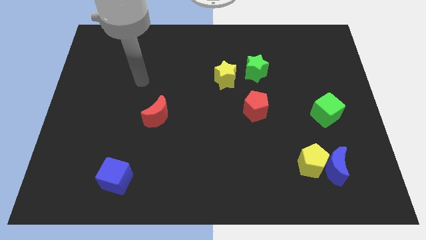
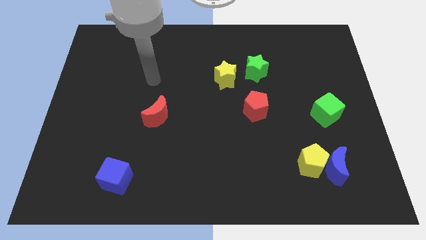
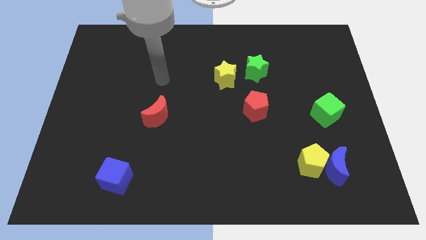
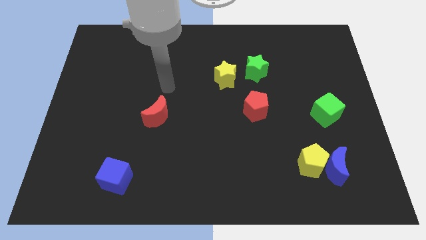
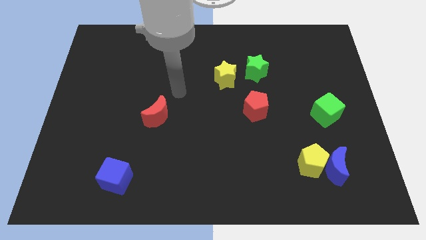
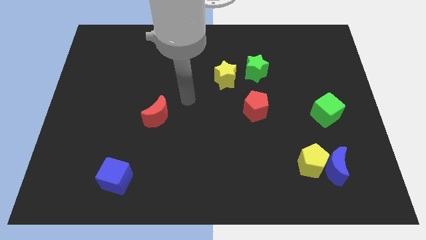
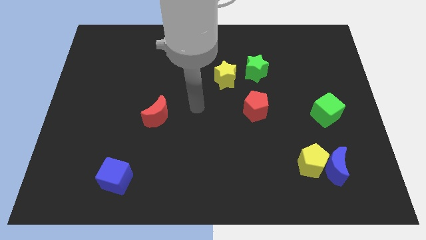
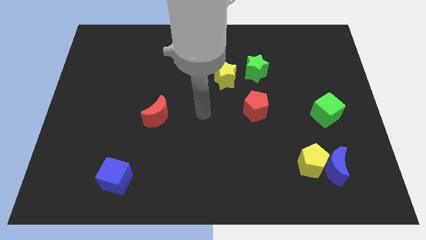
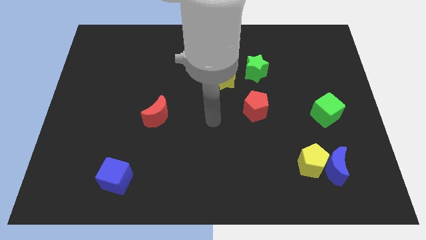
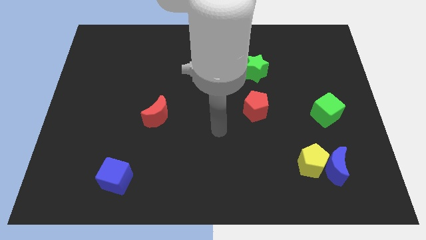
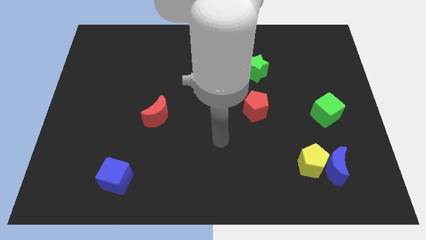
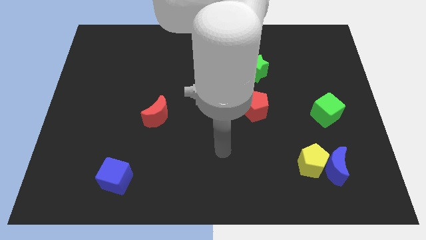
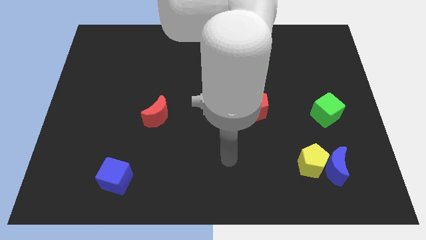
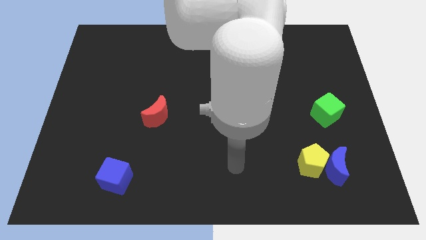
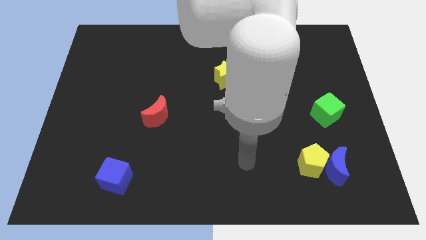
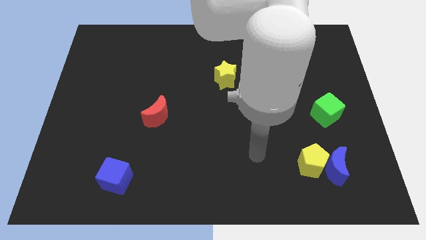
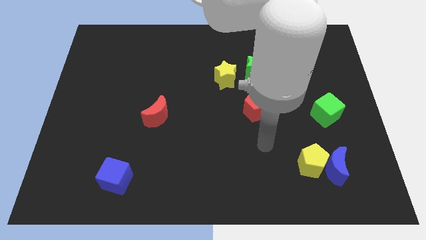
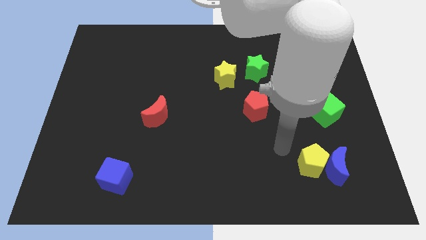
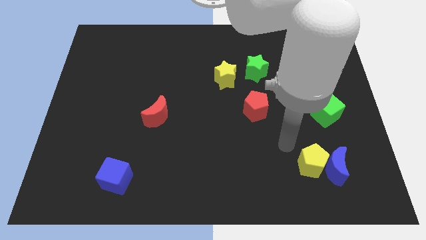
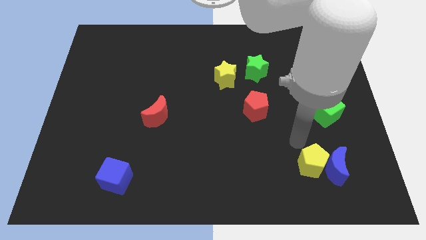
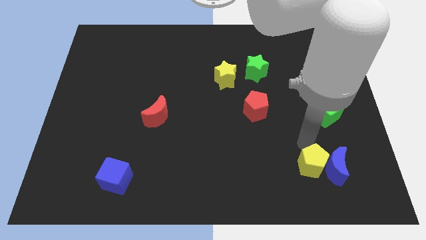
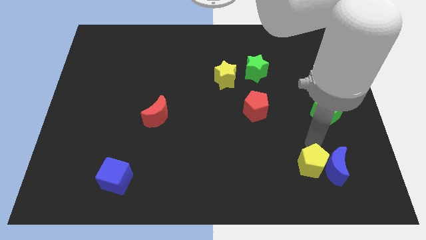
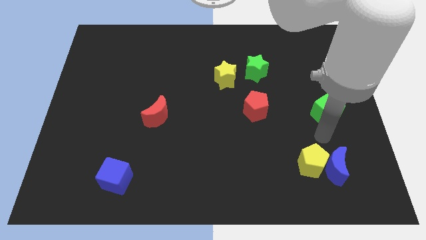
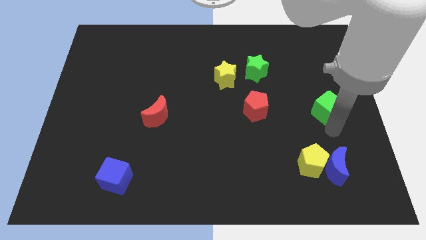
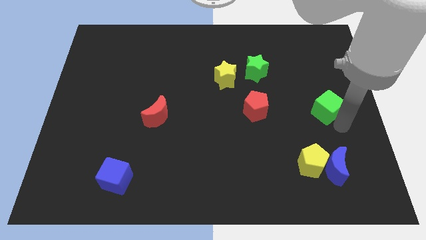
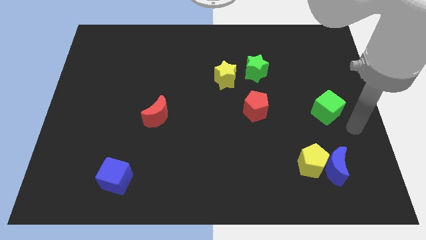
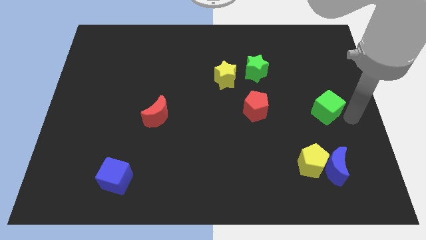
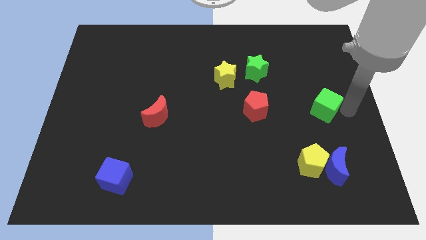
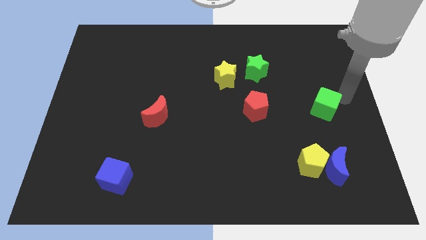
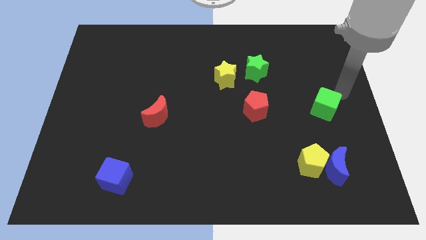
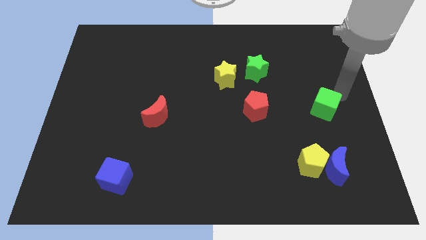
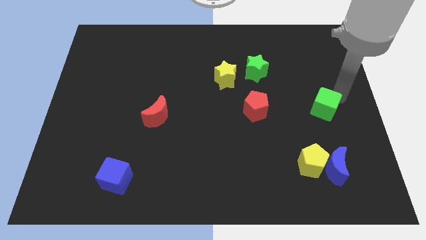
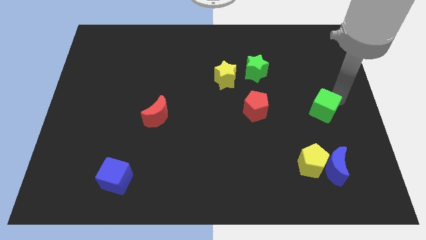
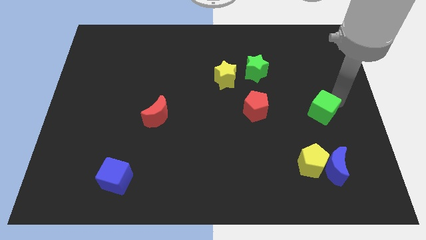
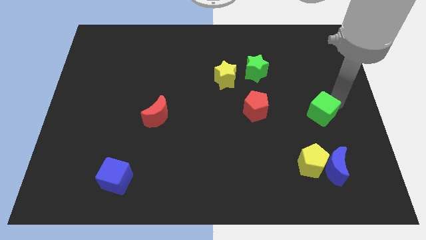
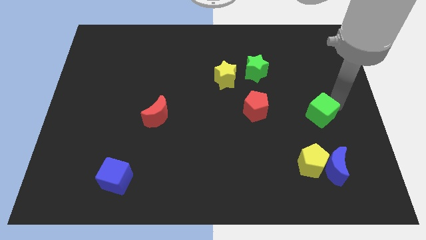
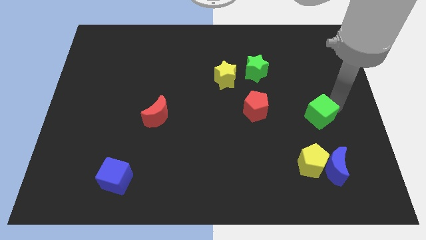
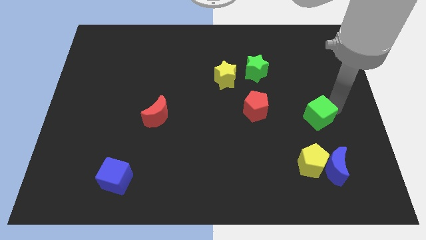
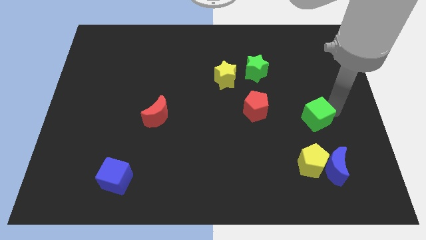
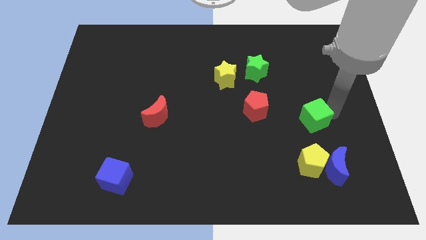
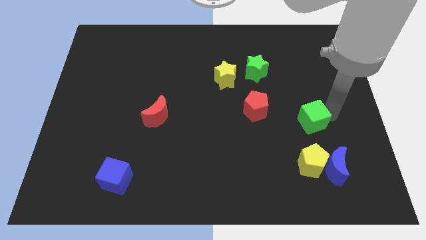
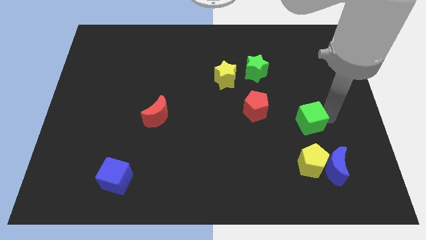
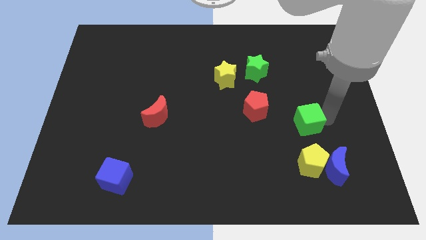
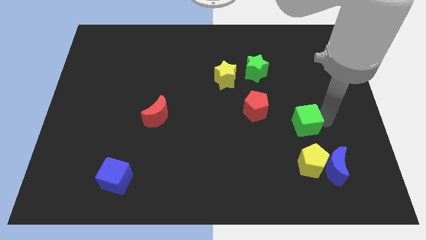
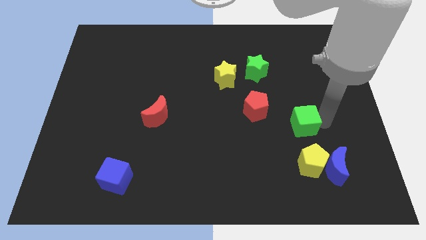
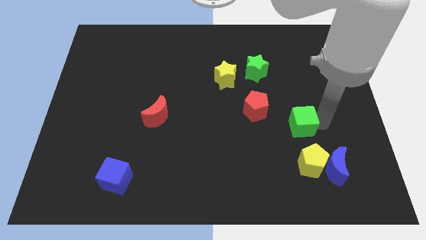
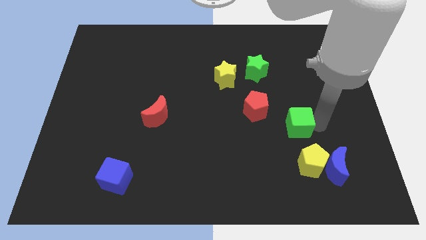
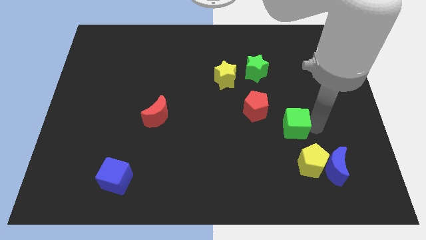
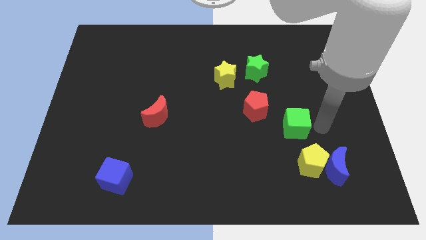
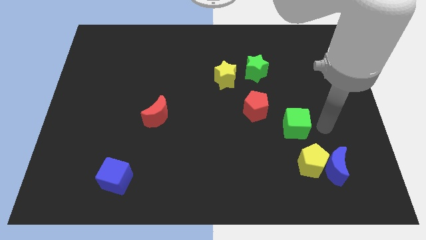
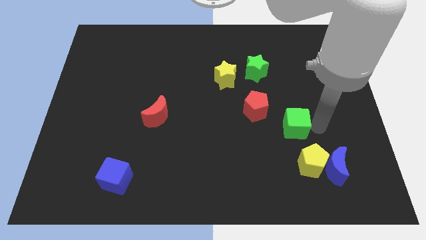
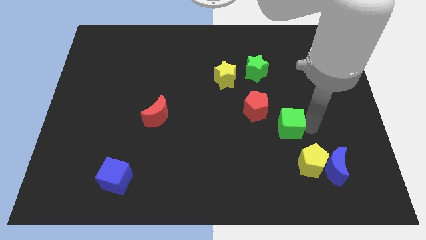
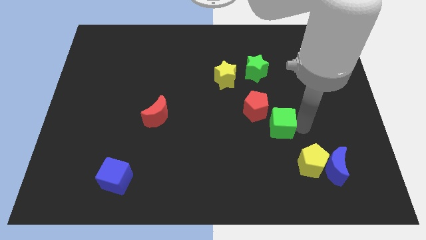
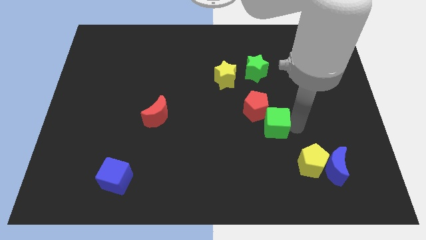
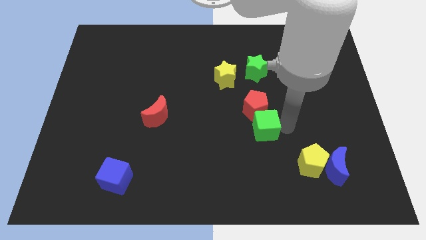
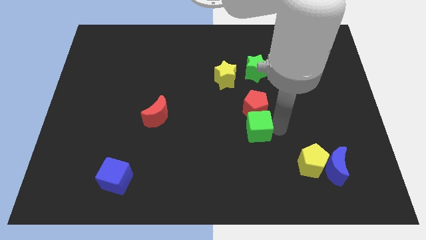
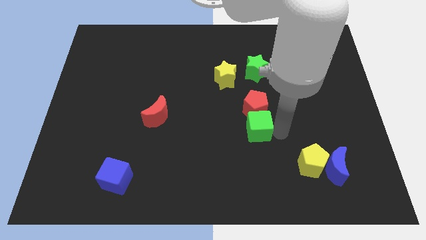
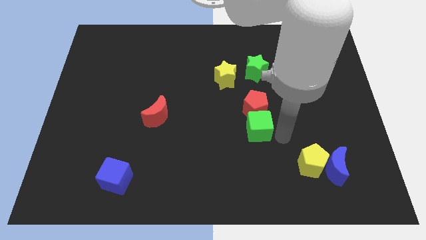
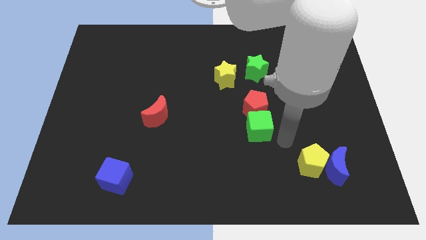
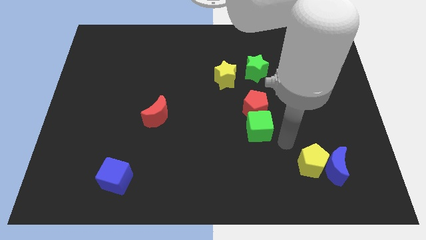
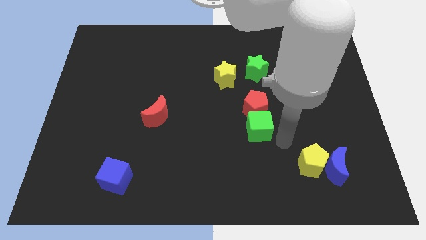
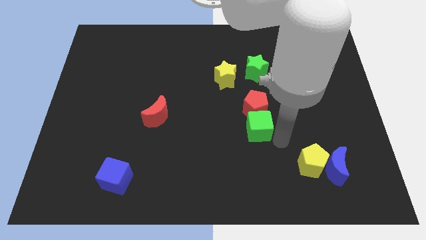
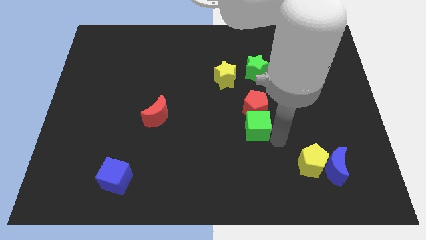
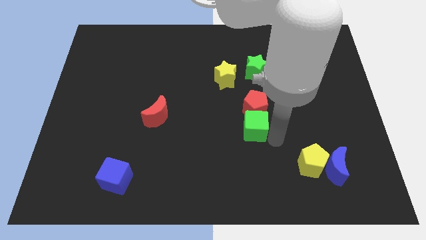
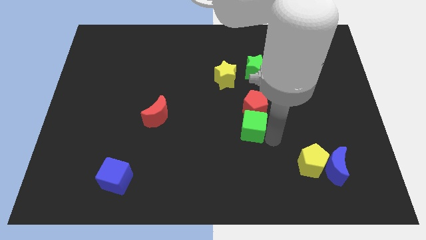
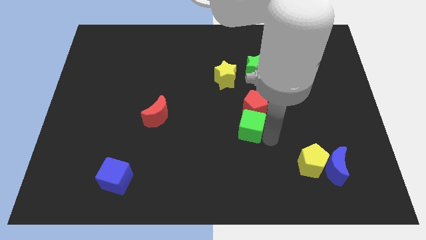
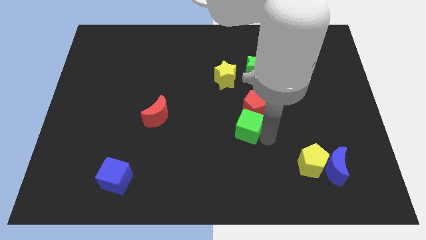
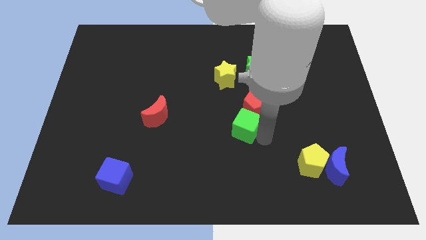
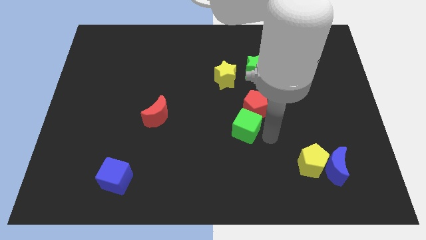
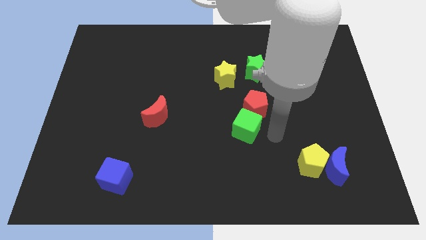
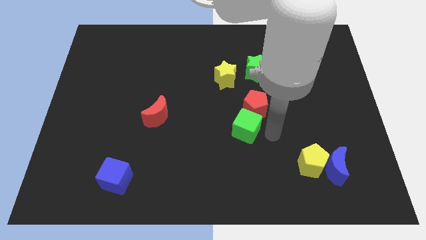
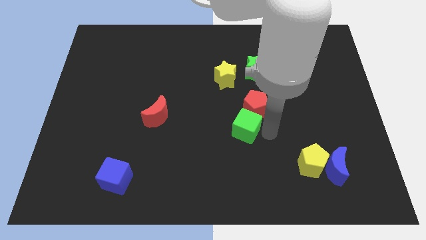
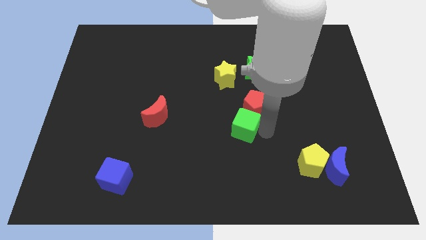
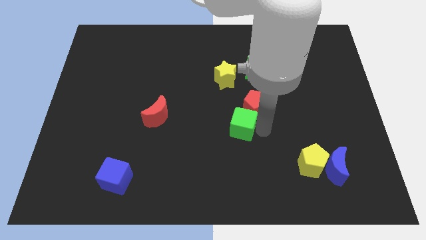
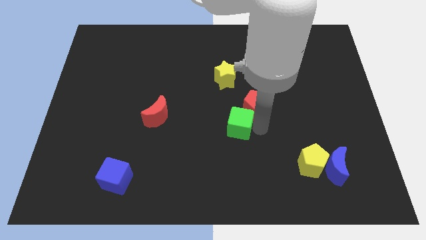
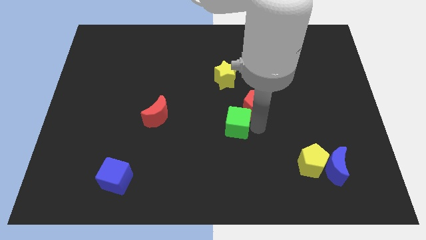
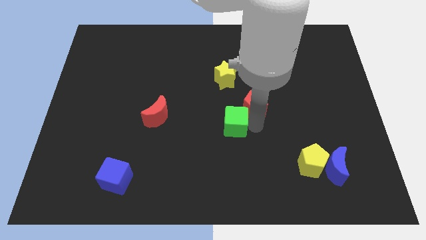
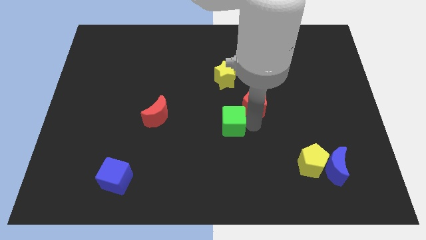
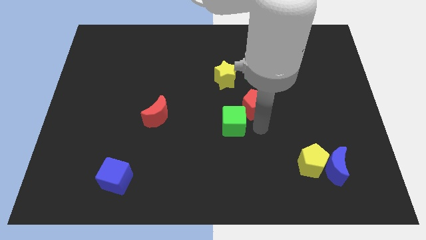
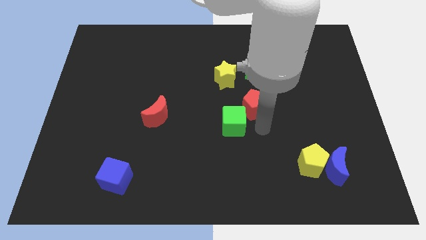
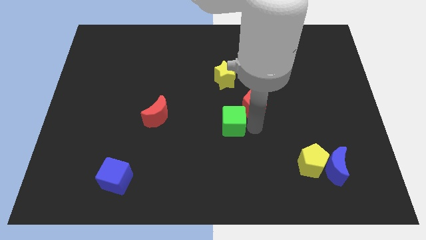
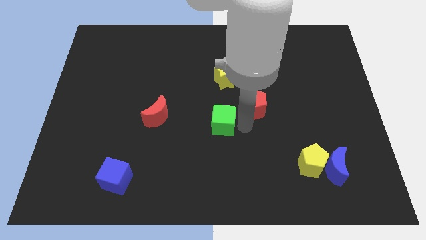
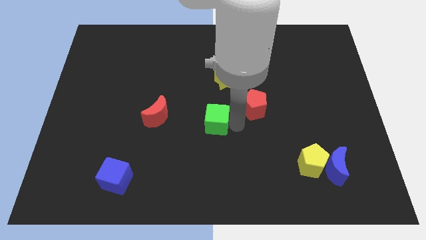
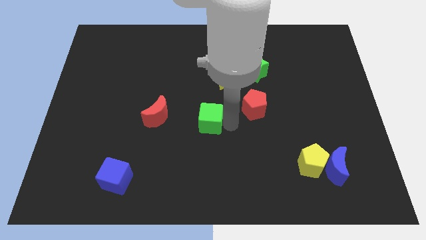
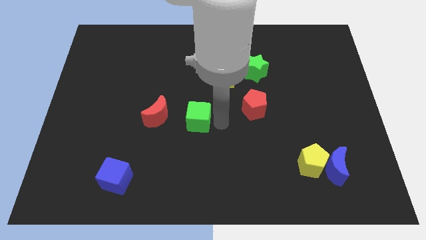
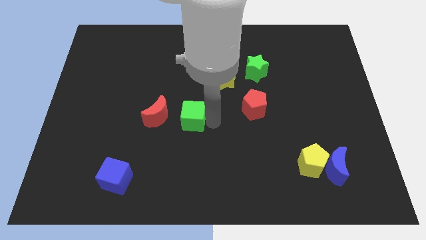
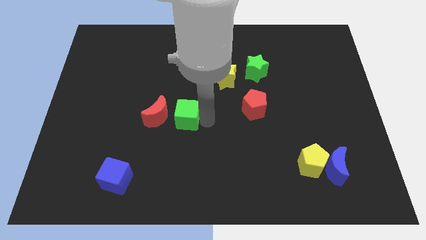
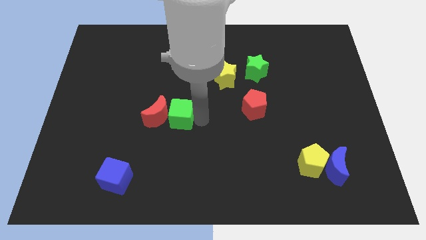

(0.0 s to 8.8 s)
slide the green cube next to the red moon
